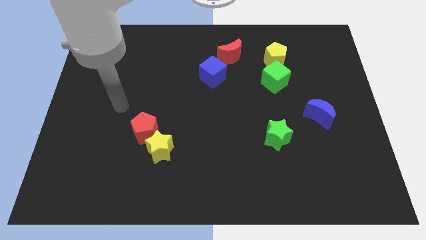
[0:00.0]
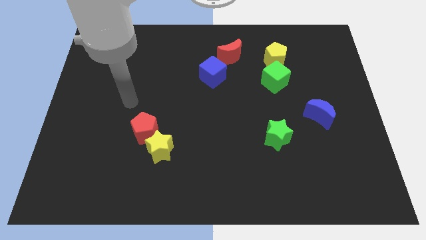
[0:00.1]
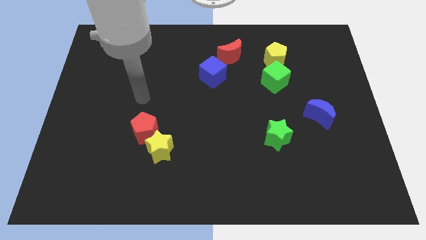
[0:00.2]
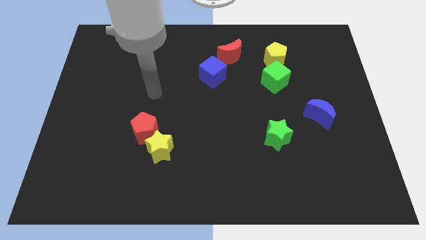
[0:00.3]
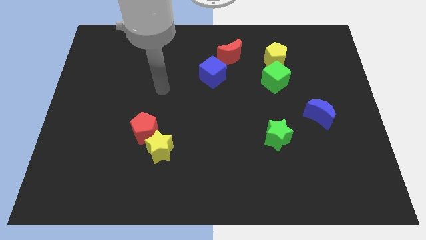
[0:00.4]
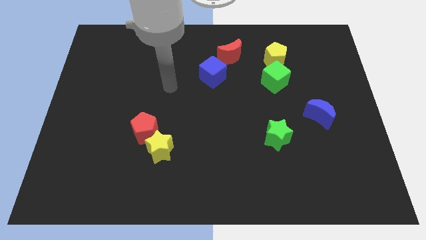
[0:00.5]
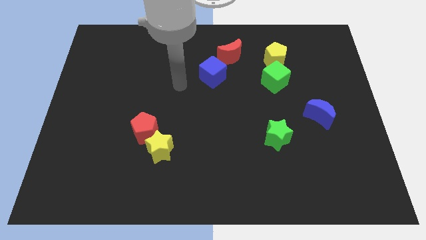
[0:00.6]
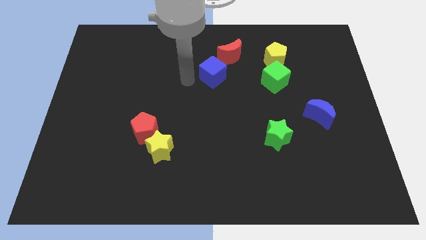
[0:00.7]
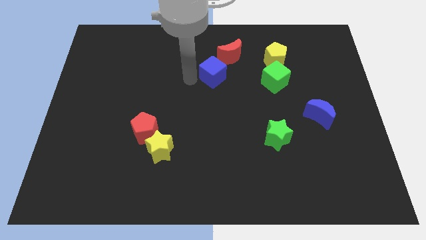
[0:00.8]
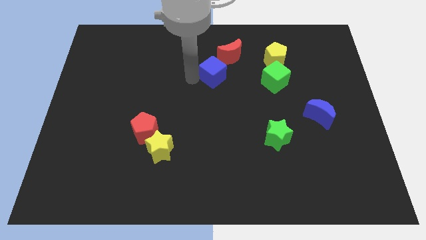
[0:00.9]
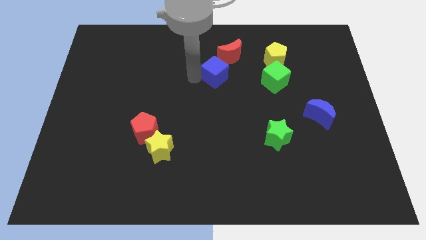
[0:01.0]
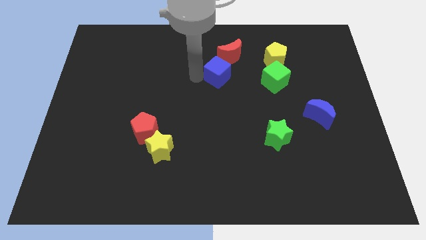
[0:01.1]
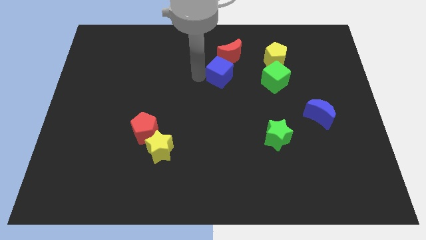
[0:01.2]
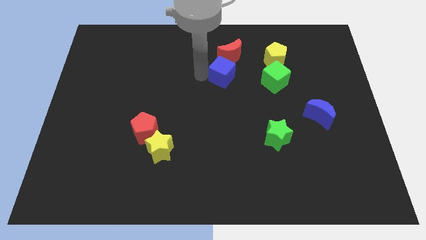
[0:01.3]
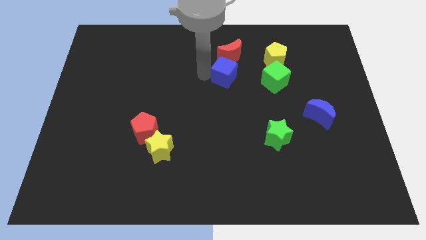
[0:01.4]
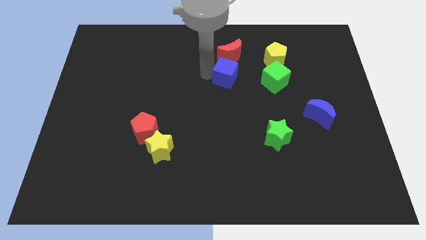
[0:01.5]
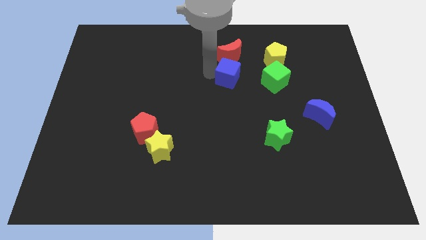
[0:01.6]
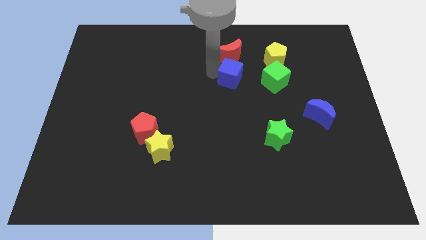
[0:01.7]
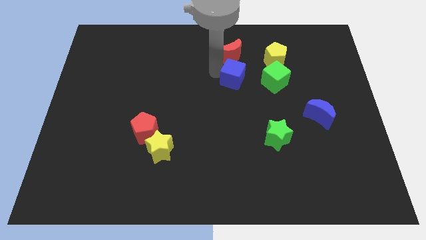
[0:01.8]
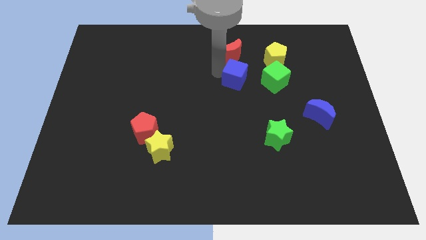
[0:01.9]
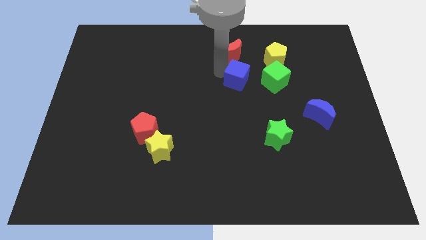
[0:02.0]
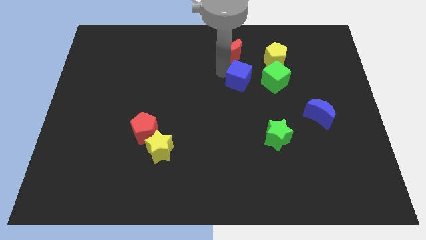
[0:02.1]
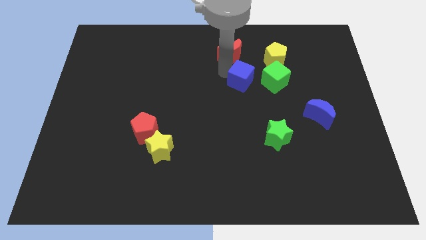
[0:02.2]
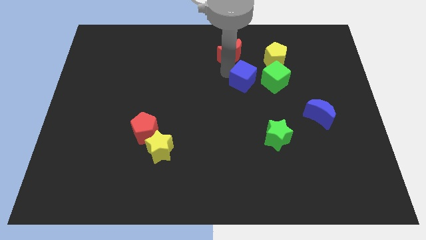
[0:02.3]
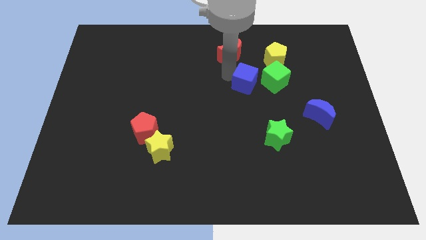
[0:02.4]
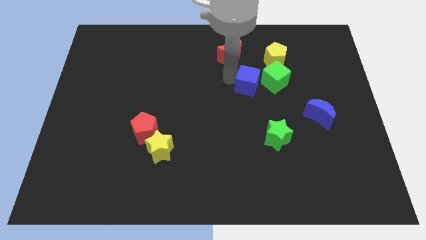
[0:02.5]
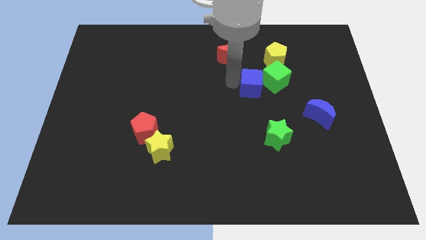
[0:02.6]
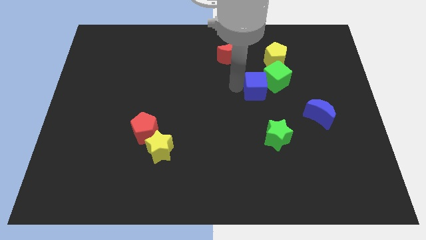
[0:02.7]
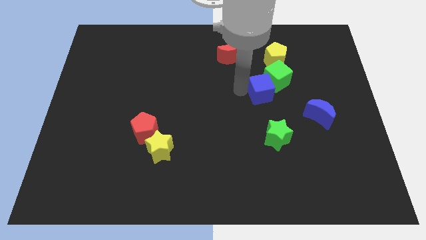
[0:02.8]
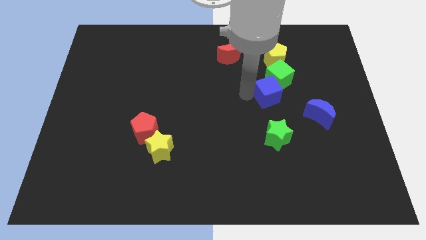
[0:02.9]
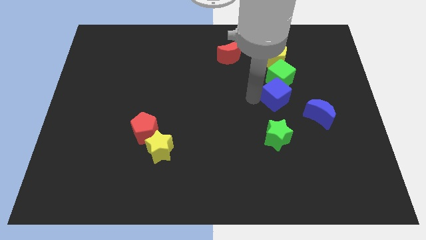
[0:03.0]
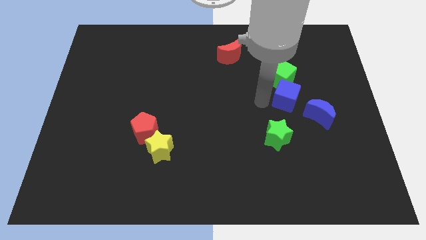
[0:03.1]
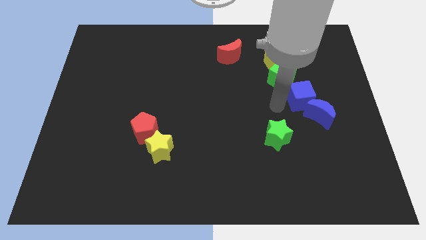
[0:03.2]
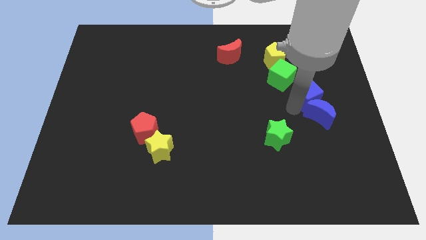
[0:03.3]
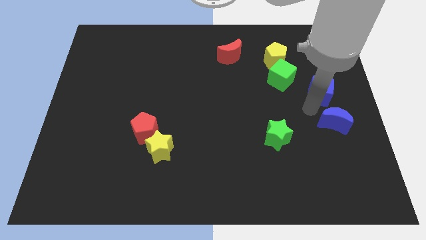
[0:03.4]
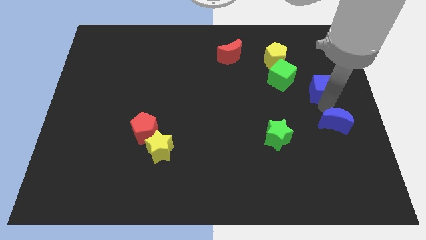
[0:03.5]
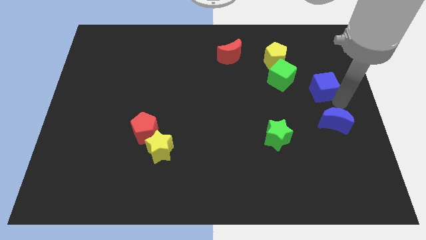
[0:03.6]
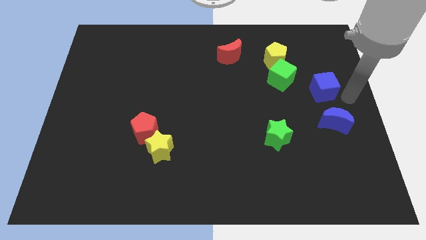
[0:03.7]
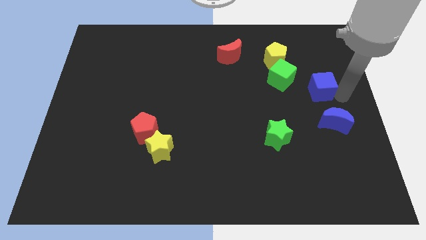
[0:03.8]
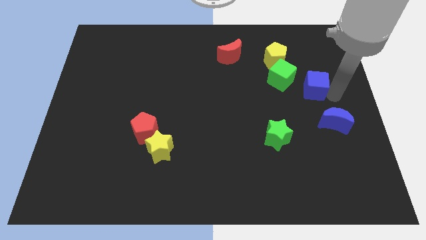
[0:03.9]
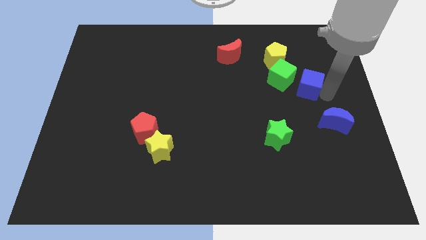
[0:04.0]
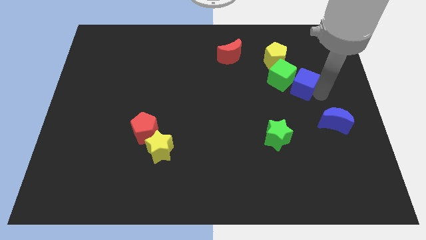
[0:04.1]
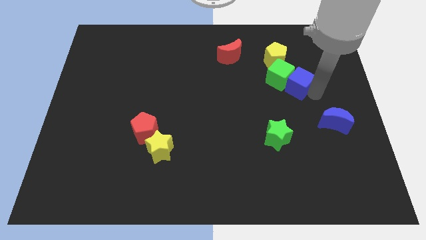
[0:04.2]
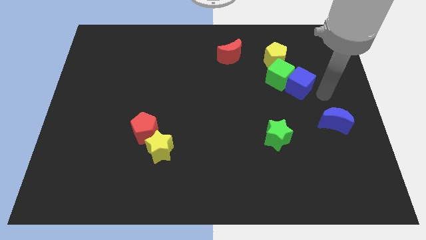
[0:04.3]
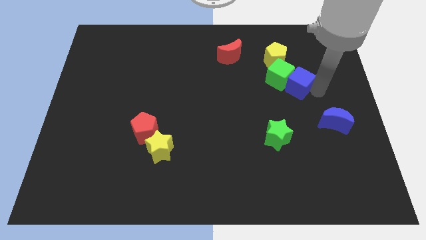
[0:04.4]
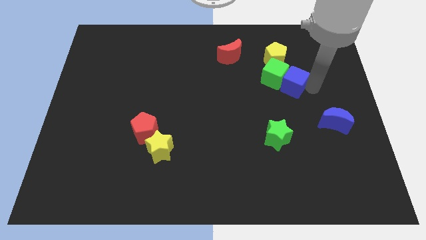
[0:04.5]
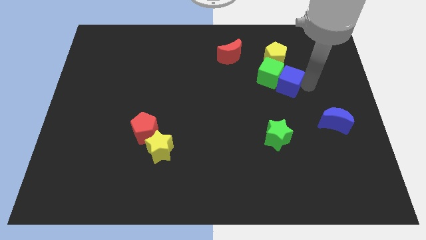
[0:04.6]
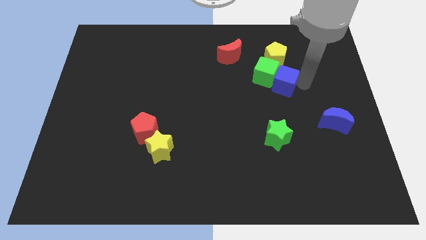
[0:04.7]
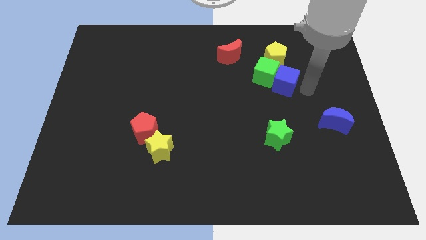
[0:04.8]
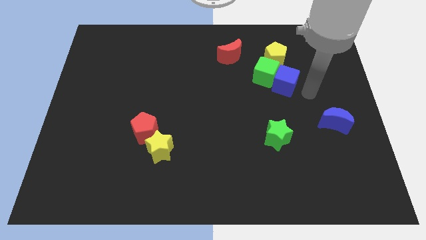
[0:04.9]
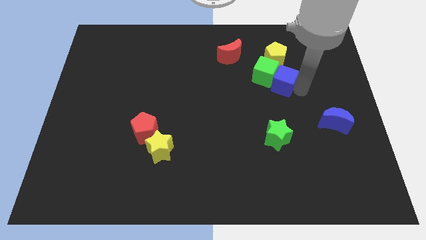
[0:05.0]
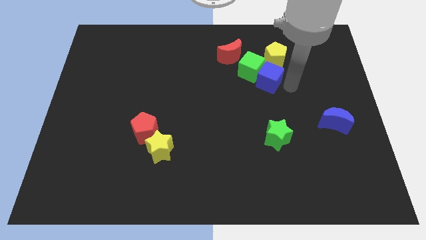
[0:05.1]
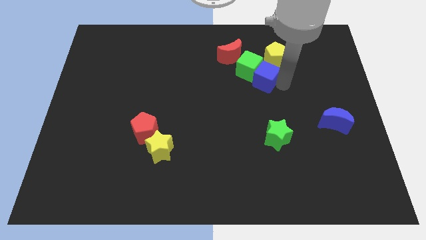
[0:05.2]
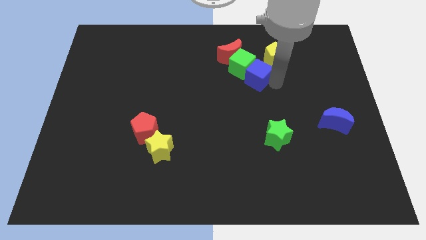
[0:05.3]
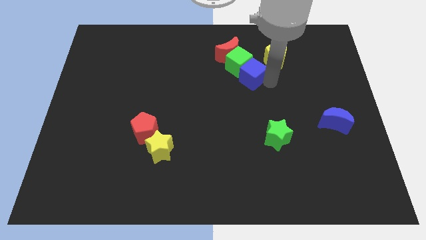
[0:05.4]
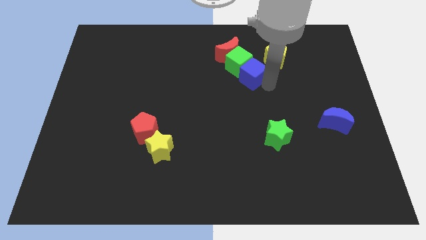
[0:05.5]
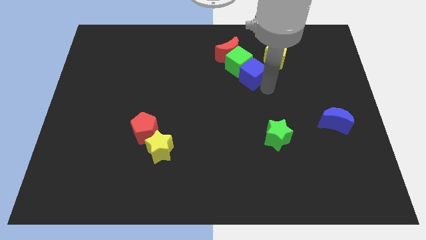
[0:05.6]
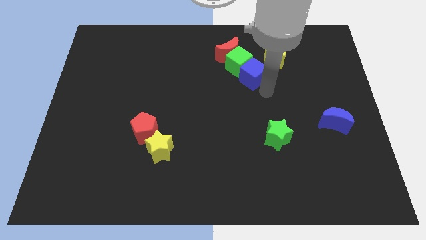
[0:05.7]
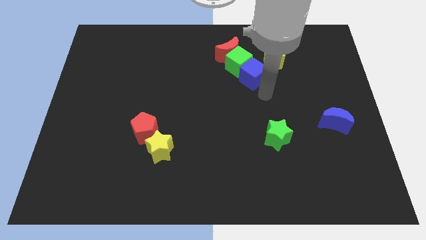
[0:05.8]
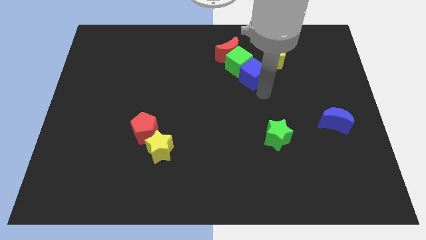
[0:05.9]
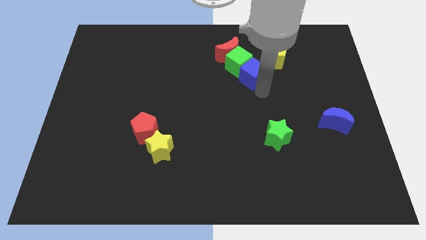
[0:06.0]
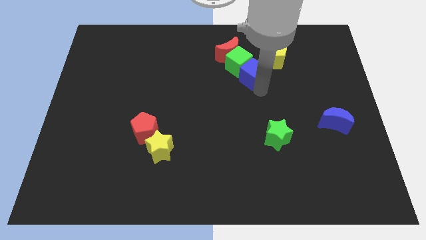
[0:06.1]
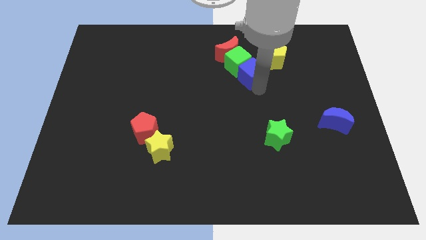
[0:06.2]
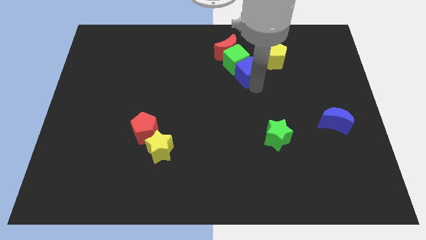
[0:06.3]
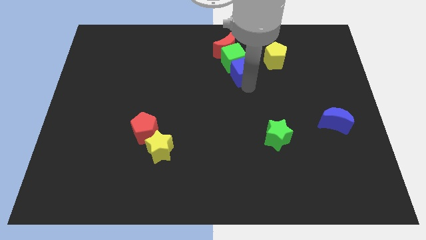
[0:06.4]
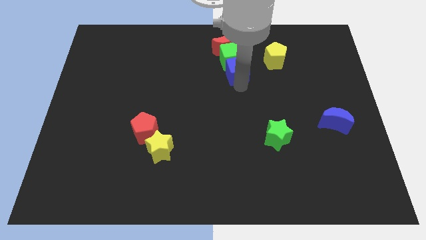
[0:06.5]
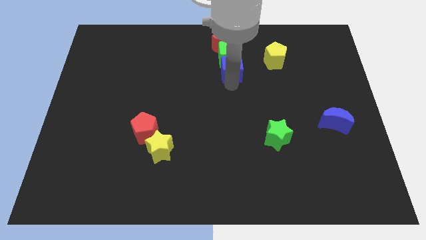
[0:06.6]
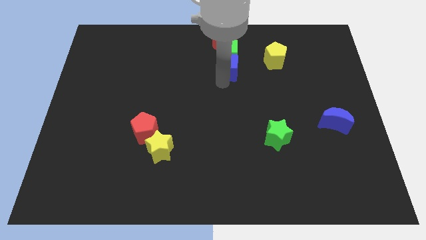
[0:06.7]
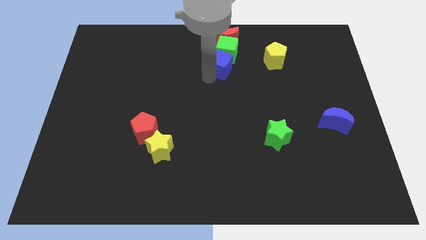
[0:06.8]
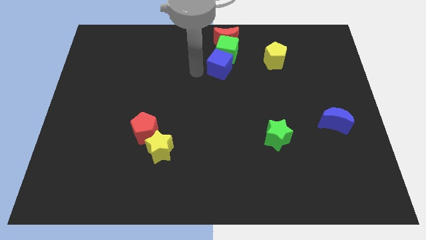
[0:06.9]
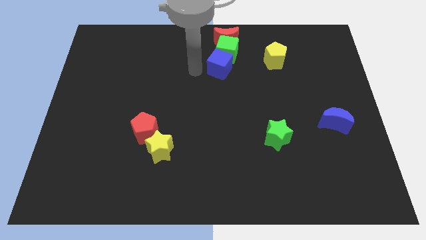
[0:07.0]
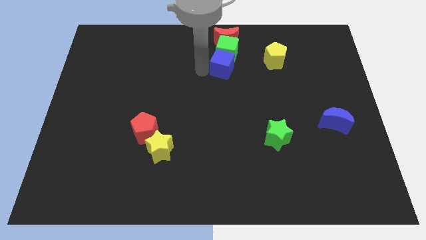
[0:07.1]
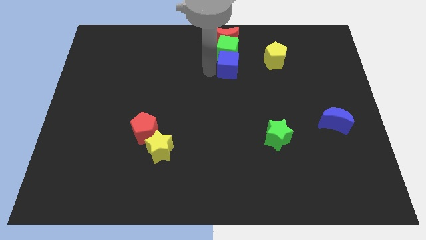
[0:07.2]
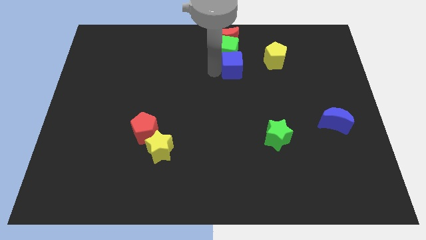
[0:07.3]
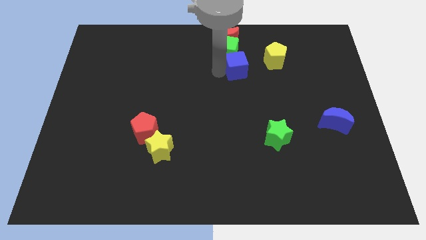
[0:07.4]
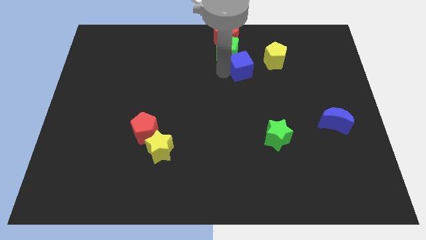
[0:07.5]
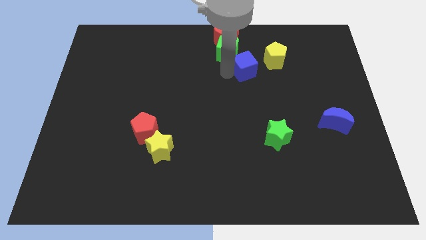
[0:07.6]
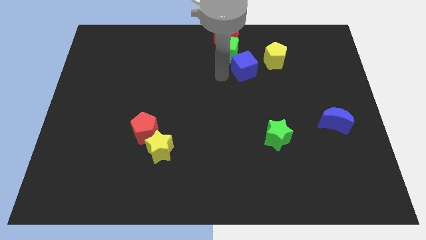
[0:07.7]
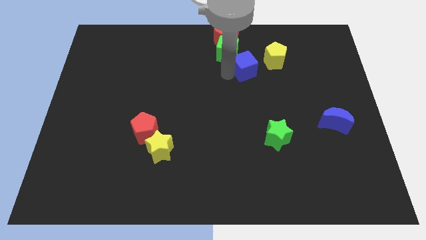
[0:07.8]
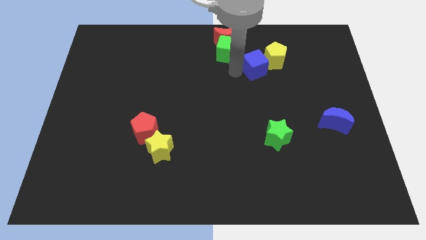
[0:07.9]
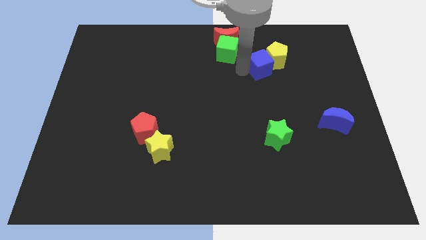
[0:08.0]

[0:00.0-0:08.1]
slide the blue cube close to the yellow pentagon
